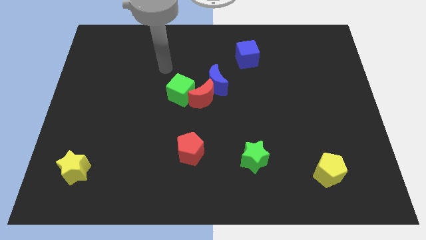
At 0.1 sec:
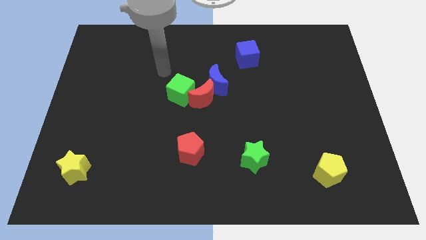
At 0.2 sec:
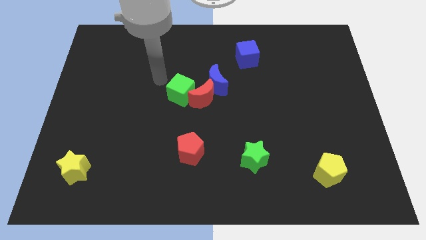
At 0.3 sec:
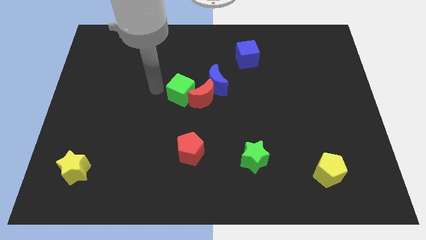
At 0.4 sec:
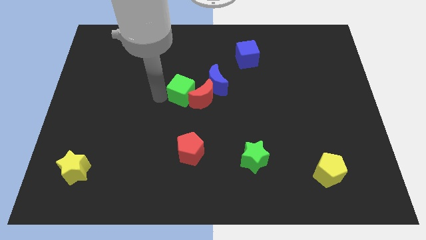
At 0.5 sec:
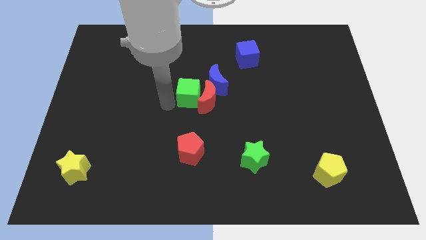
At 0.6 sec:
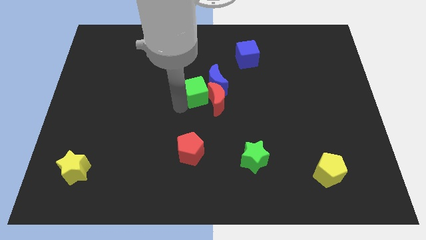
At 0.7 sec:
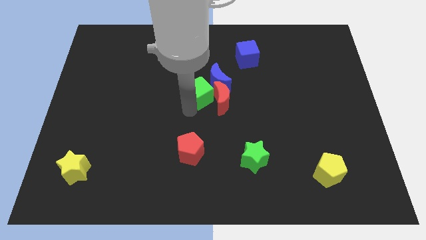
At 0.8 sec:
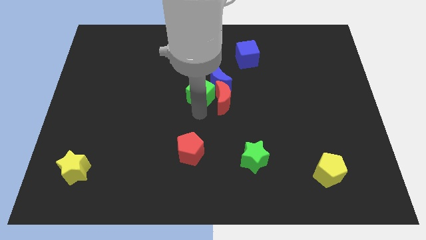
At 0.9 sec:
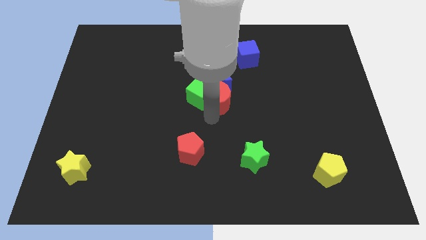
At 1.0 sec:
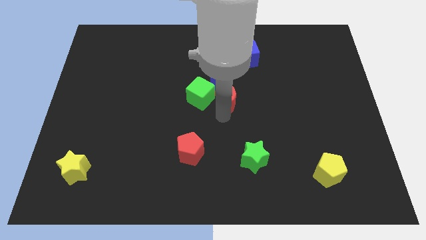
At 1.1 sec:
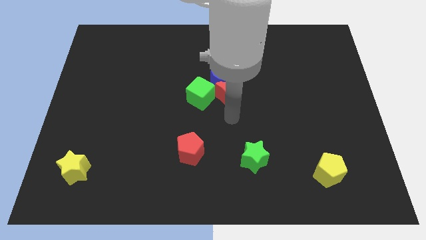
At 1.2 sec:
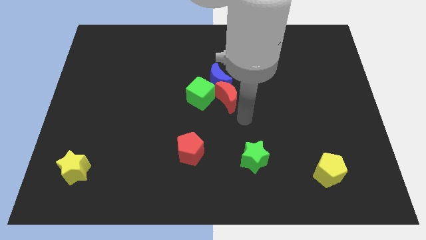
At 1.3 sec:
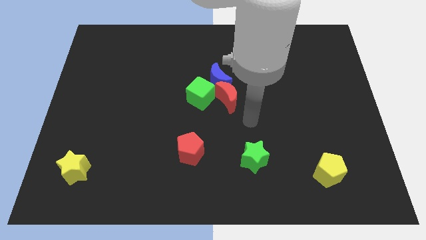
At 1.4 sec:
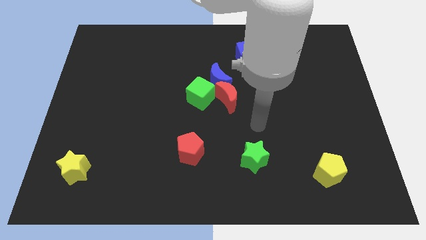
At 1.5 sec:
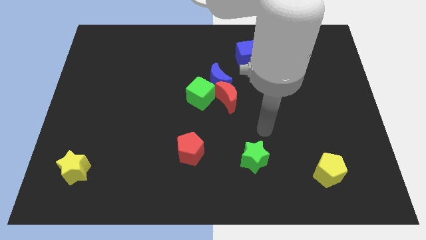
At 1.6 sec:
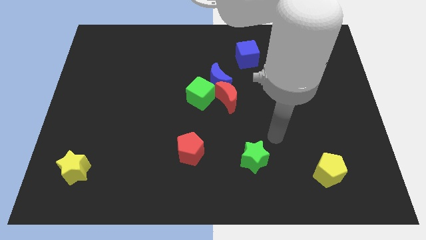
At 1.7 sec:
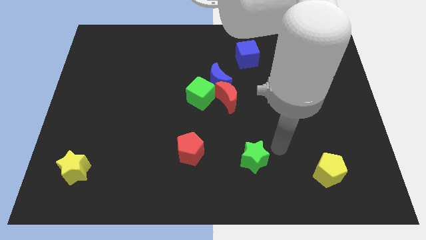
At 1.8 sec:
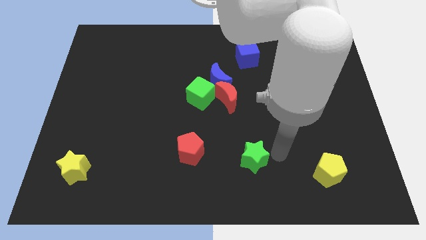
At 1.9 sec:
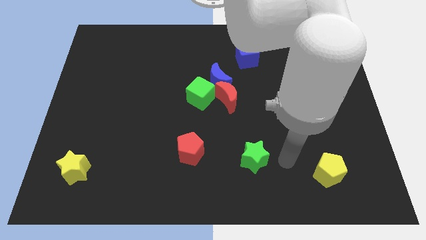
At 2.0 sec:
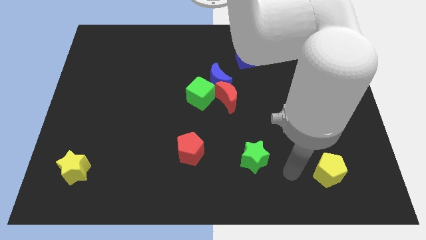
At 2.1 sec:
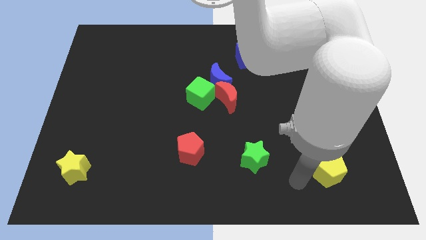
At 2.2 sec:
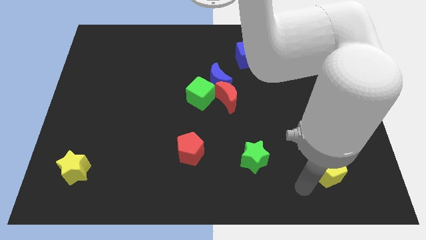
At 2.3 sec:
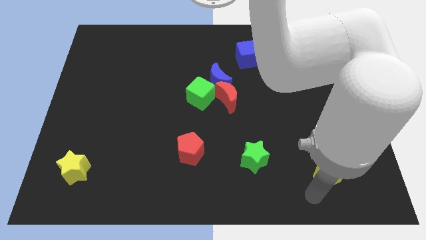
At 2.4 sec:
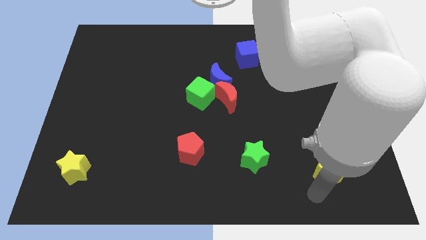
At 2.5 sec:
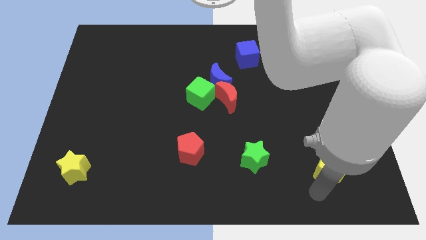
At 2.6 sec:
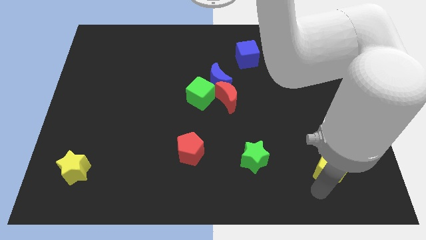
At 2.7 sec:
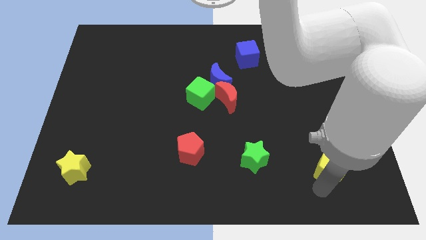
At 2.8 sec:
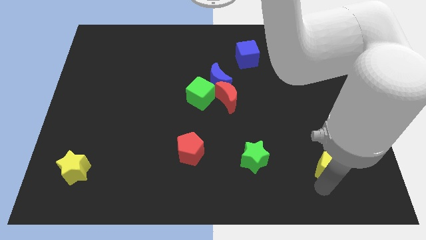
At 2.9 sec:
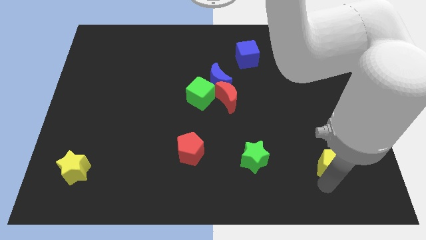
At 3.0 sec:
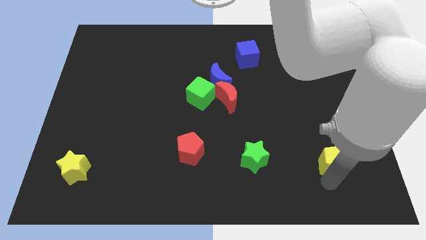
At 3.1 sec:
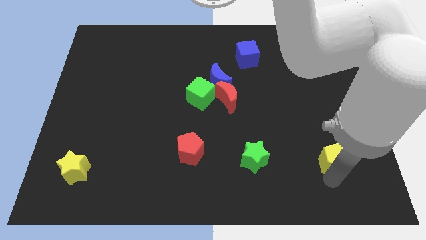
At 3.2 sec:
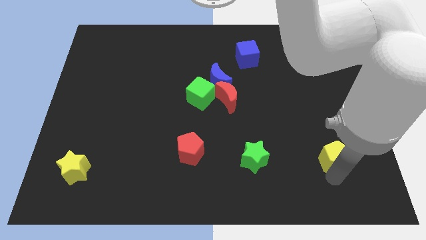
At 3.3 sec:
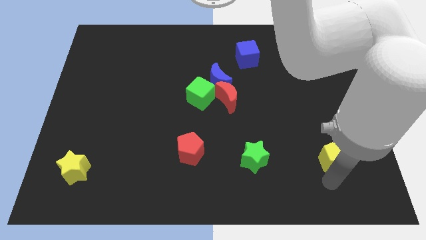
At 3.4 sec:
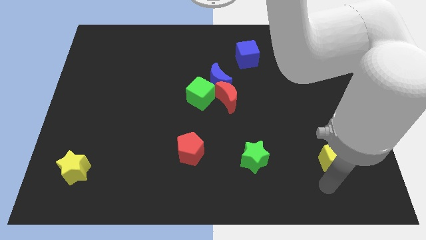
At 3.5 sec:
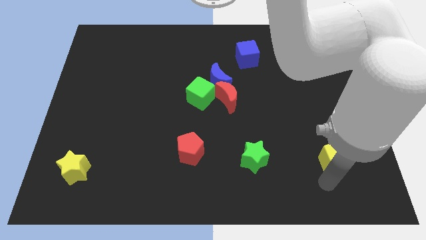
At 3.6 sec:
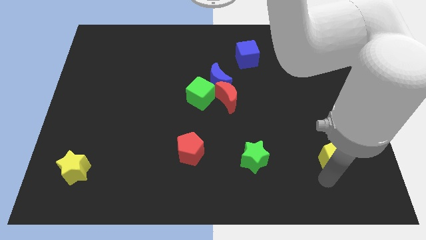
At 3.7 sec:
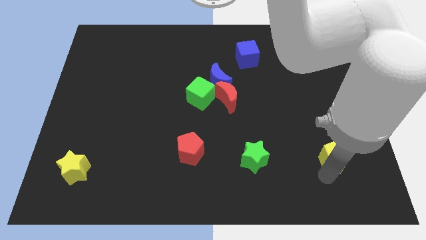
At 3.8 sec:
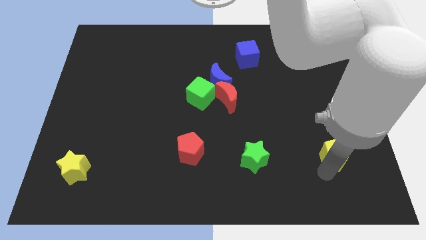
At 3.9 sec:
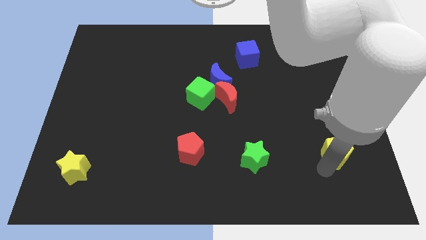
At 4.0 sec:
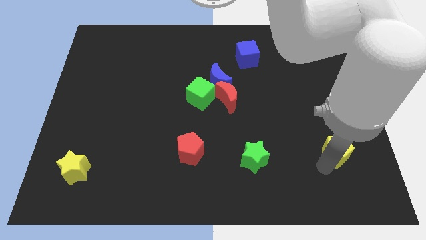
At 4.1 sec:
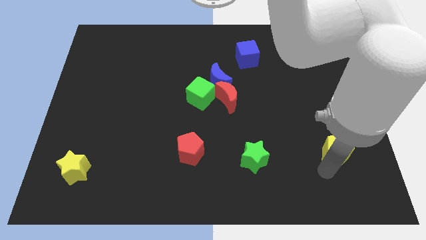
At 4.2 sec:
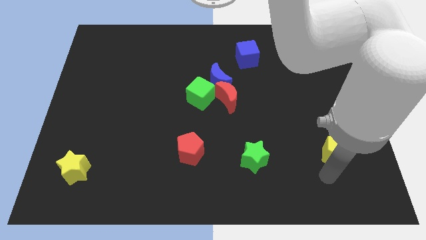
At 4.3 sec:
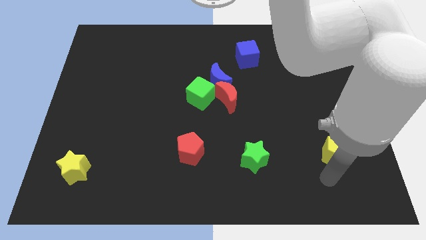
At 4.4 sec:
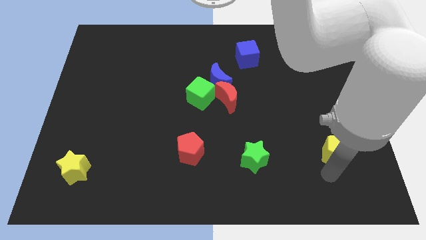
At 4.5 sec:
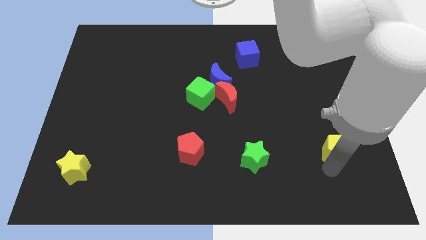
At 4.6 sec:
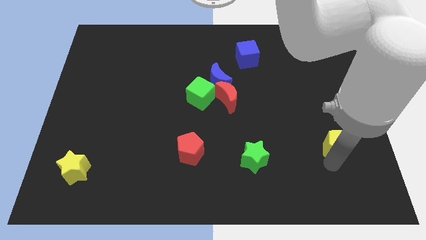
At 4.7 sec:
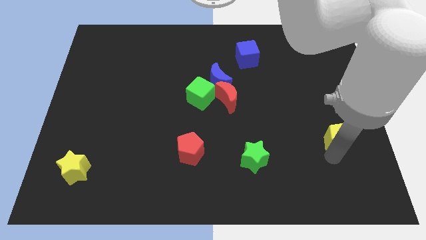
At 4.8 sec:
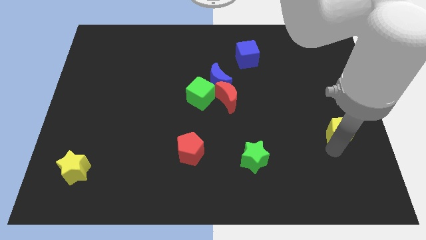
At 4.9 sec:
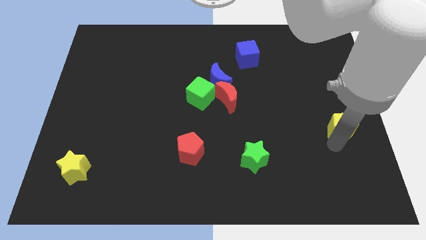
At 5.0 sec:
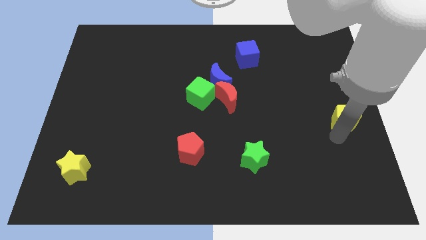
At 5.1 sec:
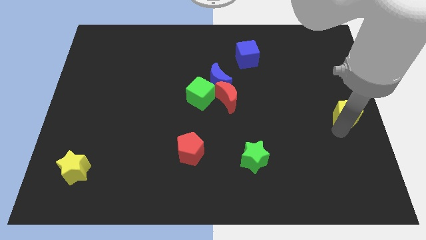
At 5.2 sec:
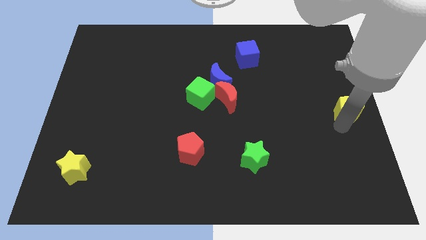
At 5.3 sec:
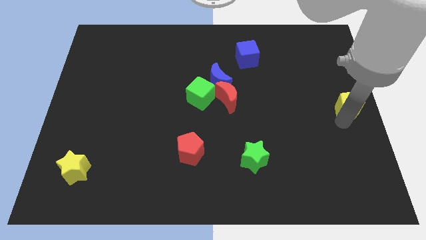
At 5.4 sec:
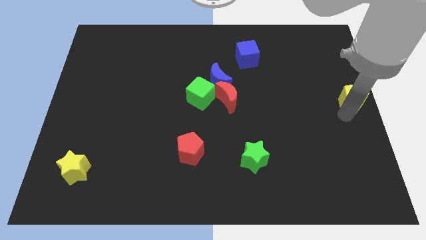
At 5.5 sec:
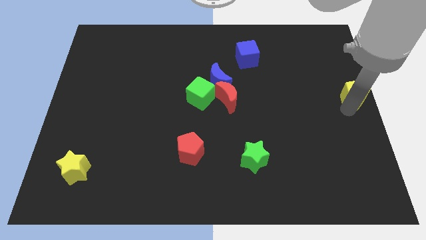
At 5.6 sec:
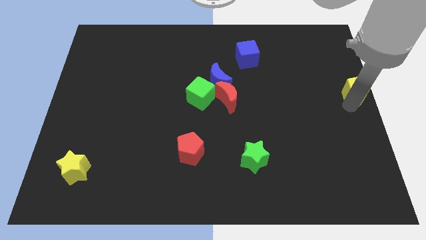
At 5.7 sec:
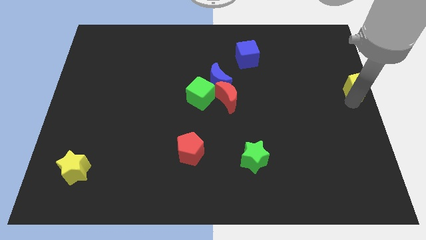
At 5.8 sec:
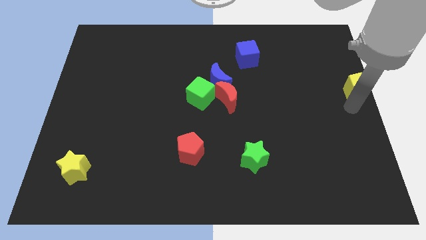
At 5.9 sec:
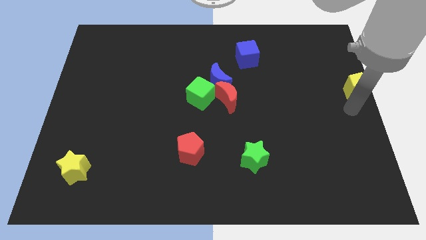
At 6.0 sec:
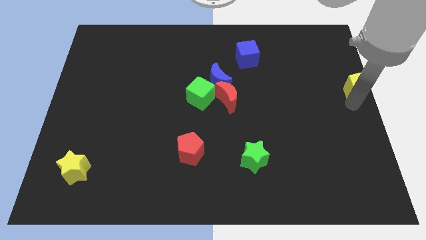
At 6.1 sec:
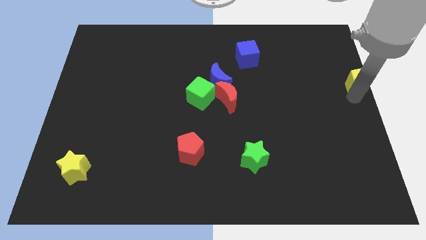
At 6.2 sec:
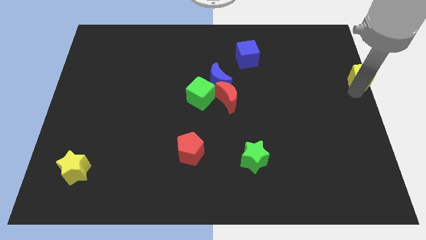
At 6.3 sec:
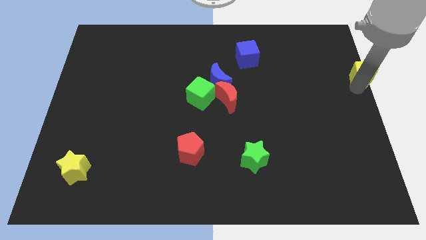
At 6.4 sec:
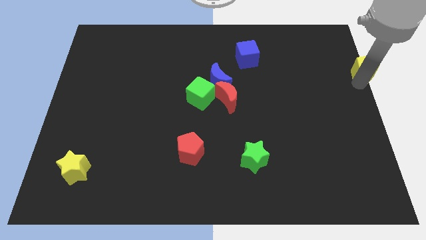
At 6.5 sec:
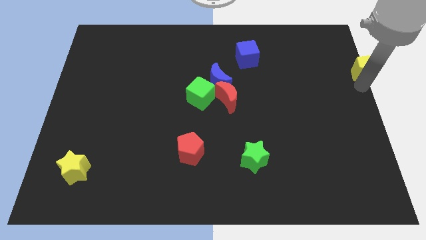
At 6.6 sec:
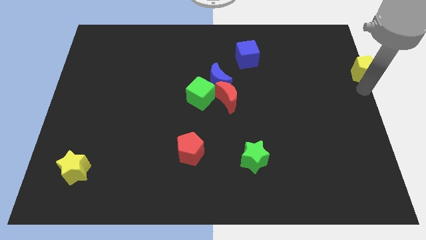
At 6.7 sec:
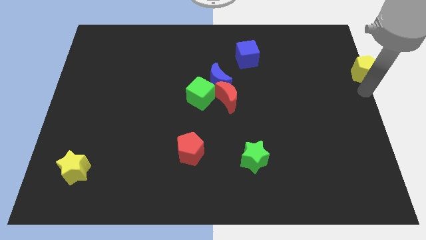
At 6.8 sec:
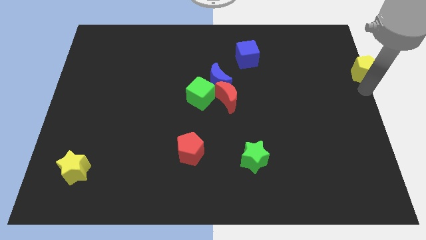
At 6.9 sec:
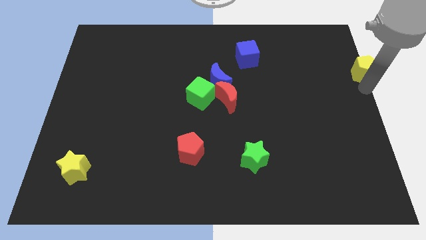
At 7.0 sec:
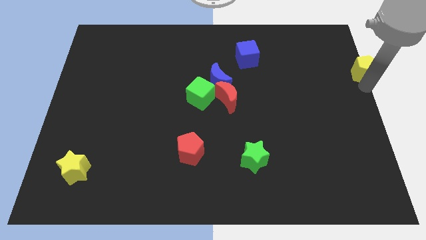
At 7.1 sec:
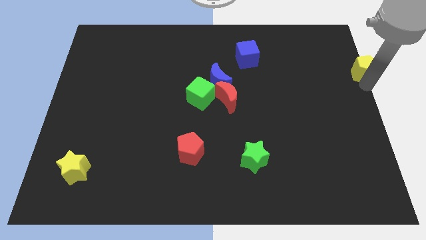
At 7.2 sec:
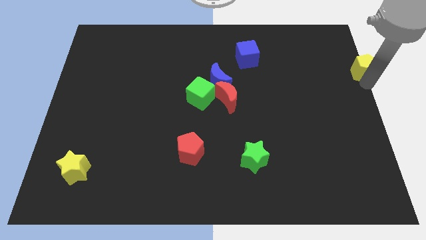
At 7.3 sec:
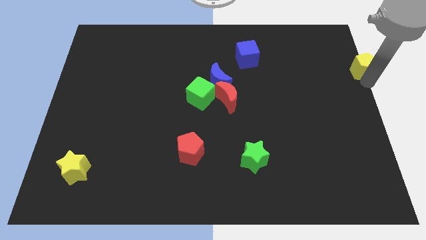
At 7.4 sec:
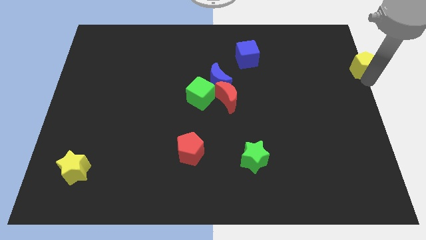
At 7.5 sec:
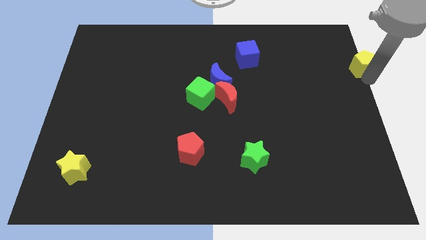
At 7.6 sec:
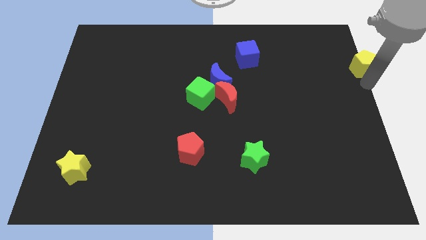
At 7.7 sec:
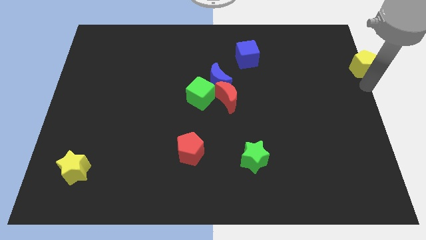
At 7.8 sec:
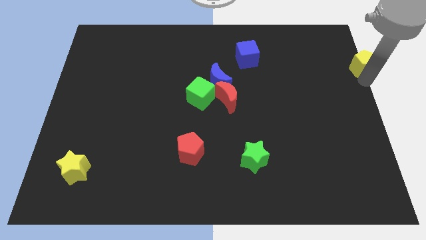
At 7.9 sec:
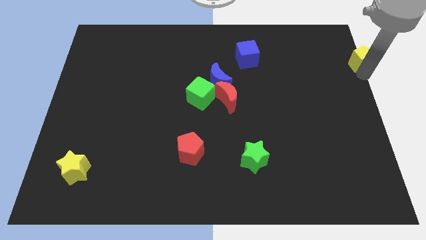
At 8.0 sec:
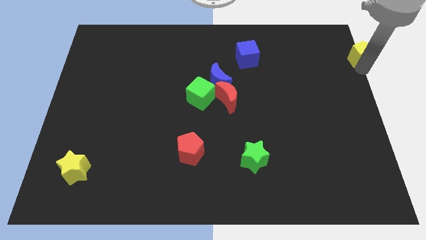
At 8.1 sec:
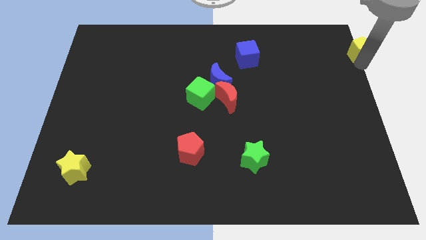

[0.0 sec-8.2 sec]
put the yellow pentagon to the top right
